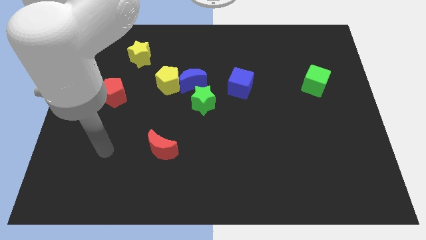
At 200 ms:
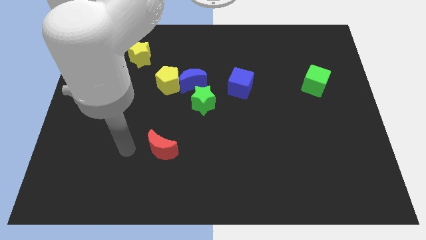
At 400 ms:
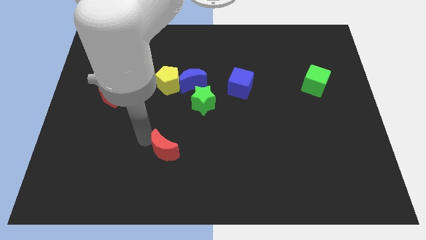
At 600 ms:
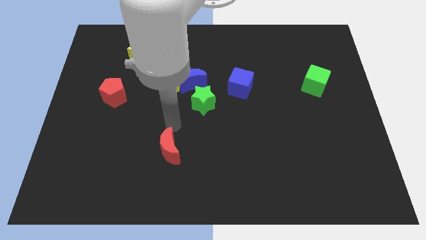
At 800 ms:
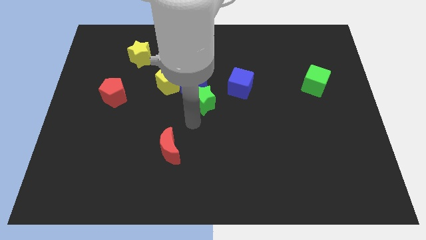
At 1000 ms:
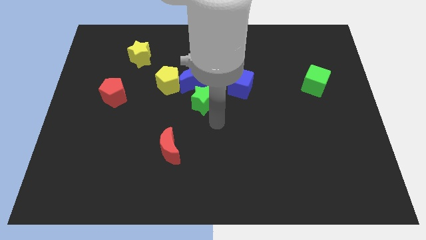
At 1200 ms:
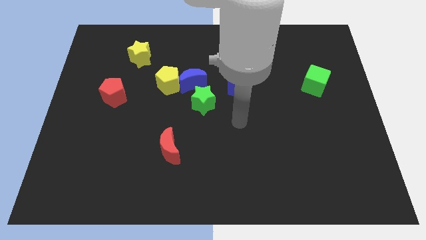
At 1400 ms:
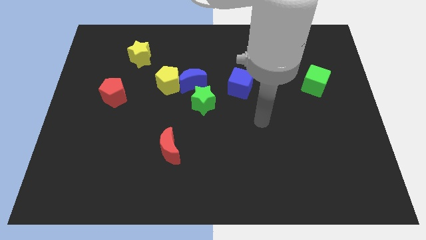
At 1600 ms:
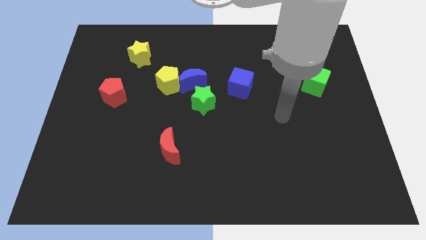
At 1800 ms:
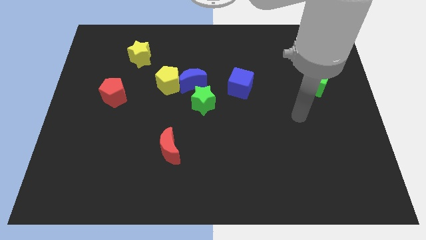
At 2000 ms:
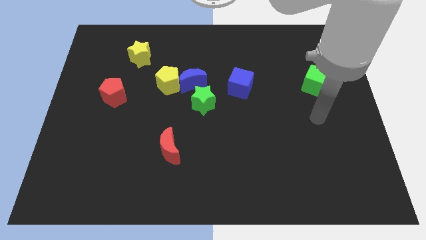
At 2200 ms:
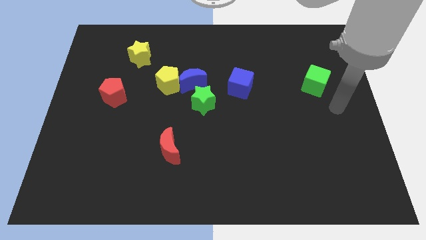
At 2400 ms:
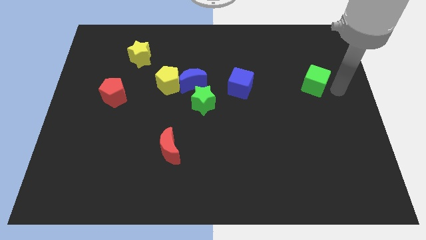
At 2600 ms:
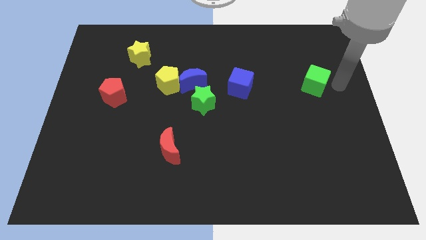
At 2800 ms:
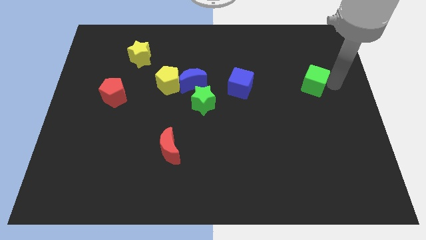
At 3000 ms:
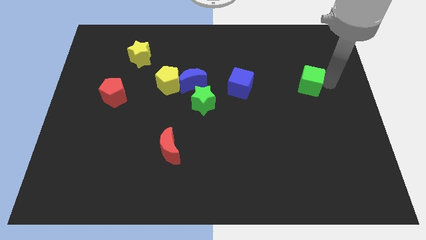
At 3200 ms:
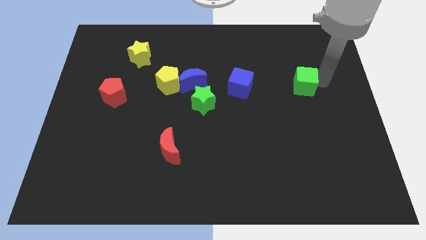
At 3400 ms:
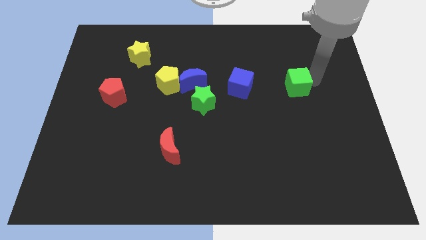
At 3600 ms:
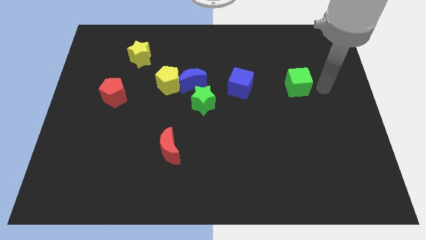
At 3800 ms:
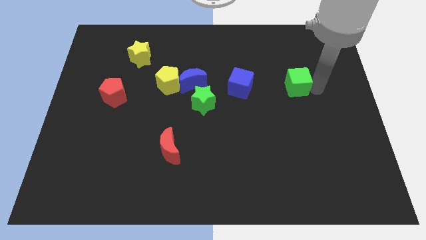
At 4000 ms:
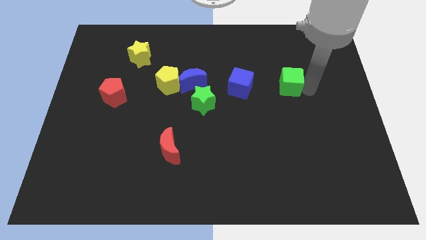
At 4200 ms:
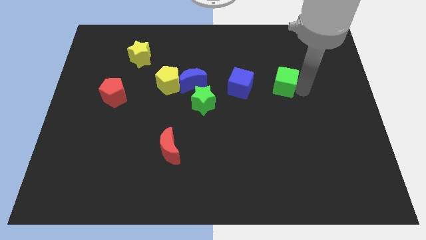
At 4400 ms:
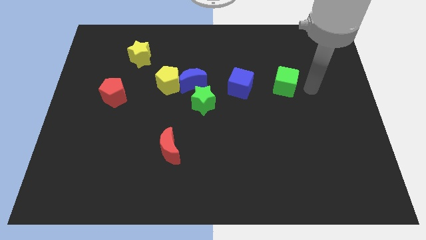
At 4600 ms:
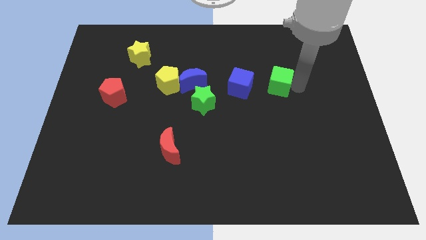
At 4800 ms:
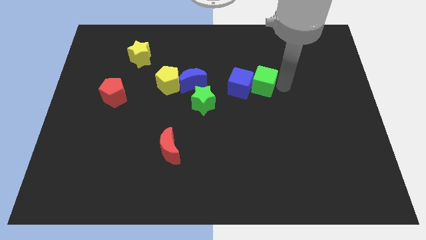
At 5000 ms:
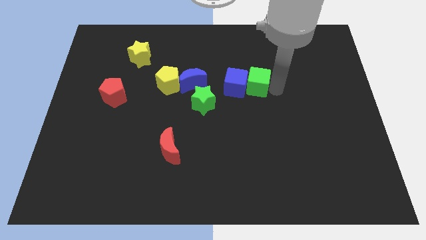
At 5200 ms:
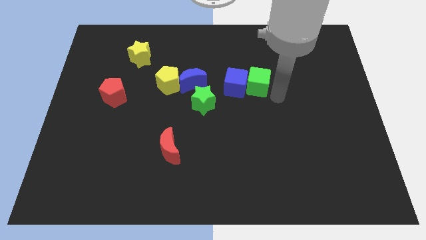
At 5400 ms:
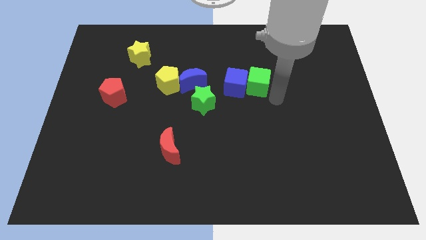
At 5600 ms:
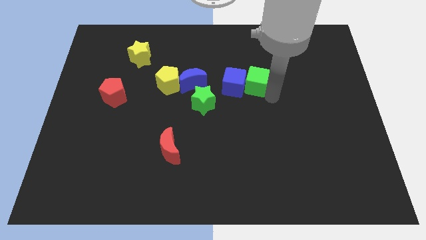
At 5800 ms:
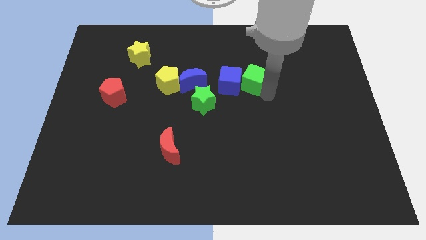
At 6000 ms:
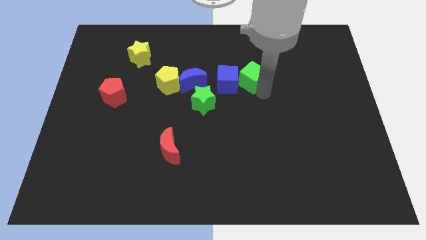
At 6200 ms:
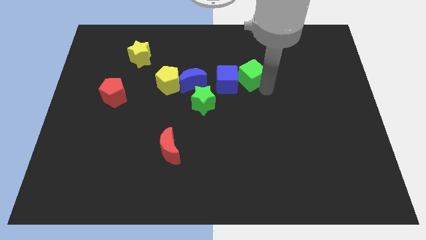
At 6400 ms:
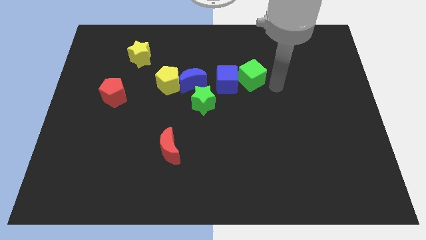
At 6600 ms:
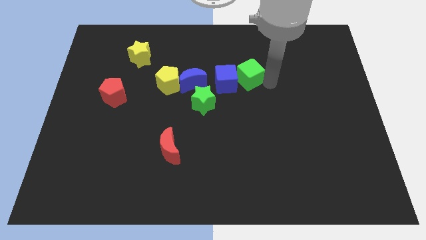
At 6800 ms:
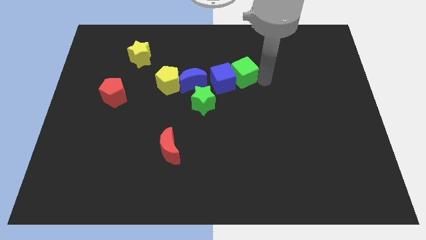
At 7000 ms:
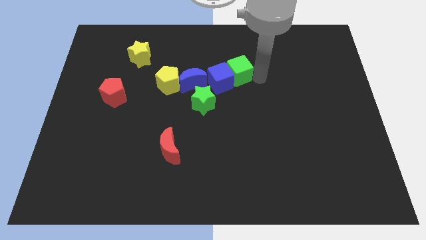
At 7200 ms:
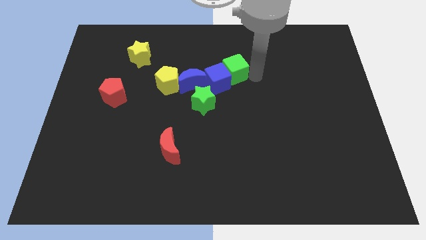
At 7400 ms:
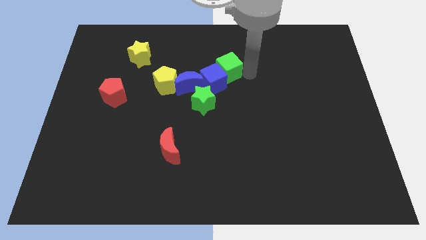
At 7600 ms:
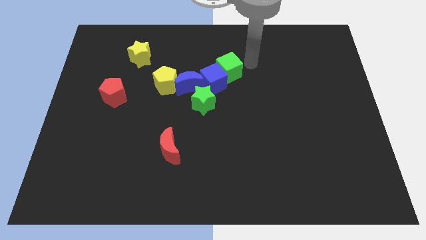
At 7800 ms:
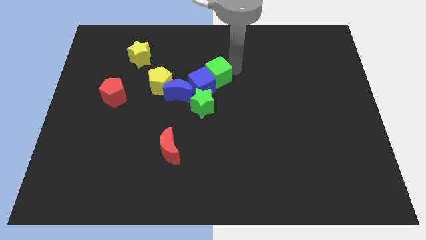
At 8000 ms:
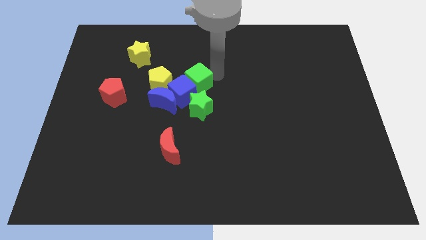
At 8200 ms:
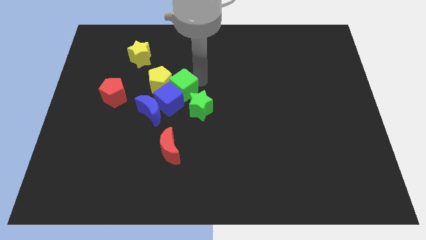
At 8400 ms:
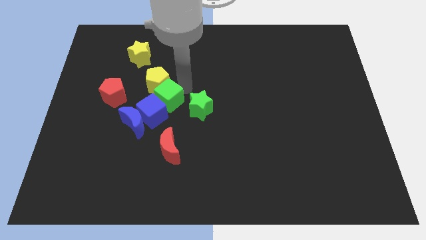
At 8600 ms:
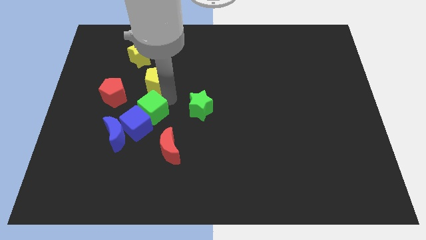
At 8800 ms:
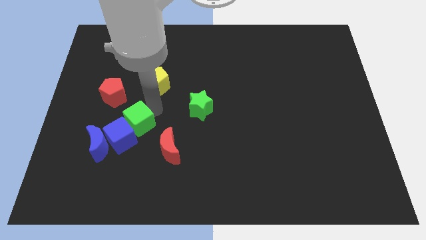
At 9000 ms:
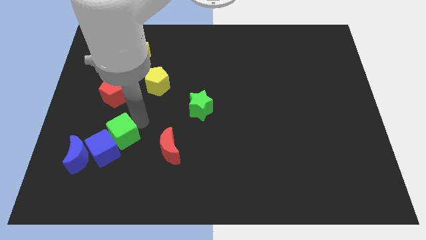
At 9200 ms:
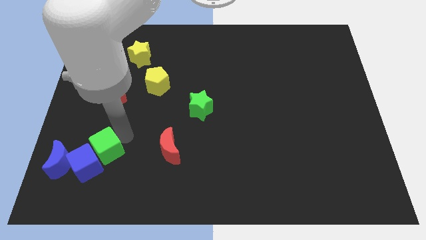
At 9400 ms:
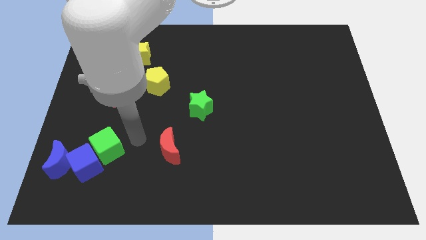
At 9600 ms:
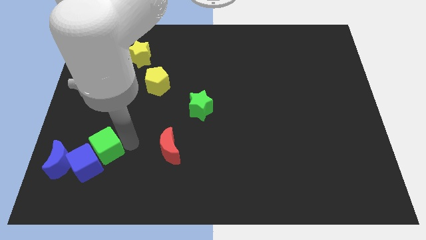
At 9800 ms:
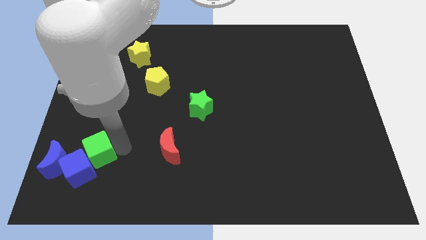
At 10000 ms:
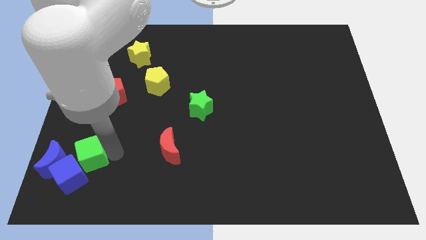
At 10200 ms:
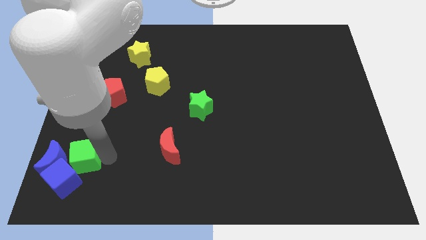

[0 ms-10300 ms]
move the green cube next to the blue moon

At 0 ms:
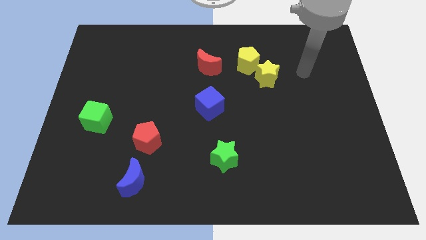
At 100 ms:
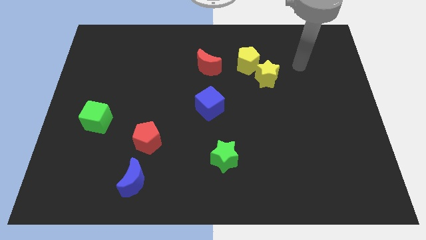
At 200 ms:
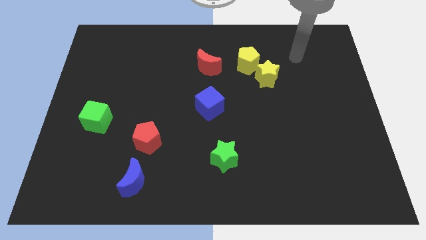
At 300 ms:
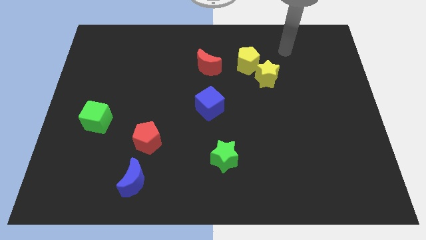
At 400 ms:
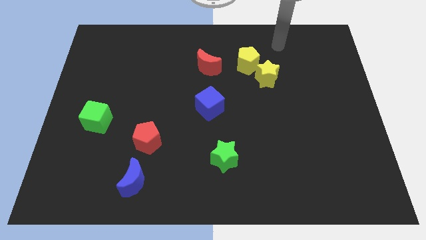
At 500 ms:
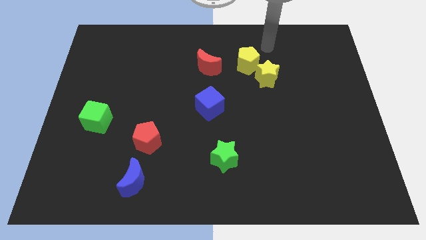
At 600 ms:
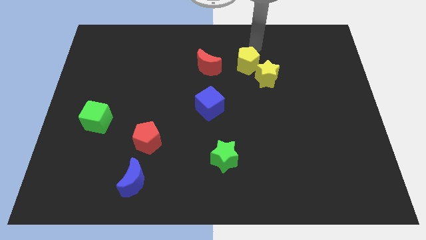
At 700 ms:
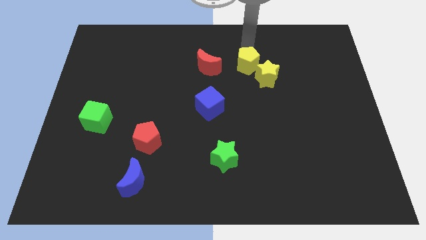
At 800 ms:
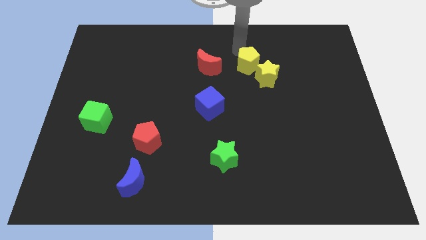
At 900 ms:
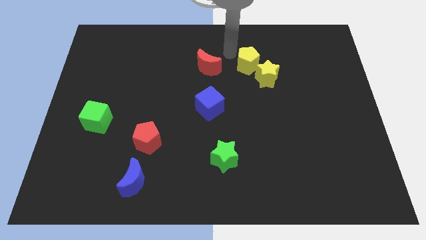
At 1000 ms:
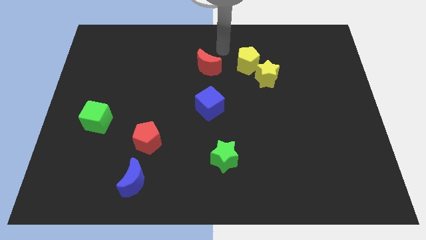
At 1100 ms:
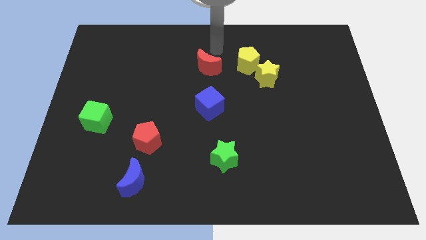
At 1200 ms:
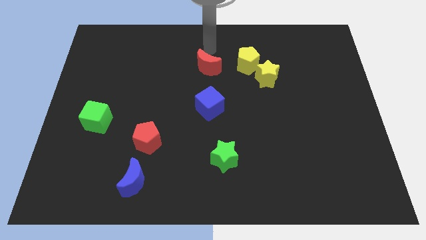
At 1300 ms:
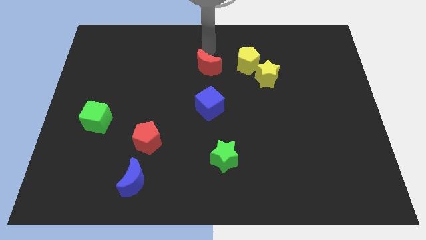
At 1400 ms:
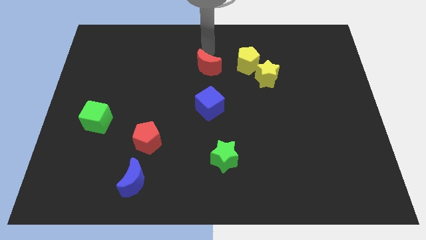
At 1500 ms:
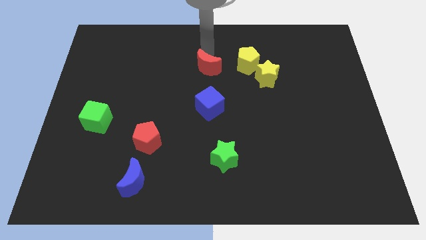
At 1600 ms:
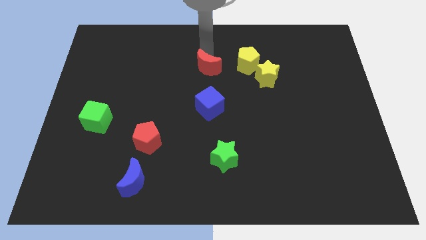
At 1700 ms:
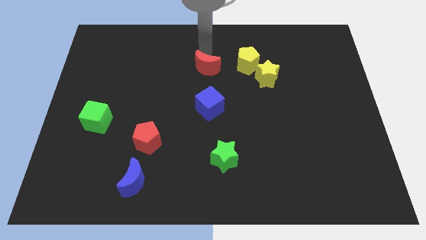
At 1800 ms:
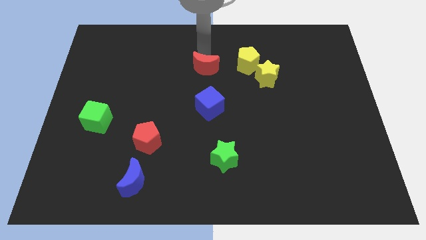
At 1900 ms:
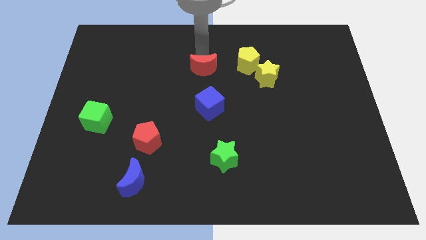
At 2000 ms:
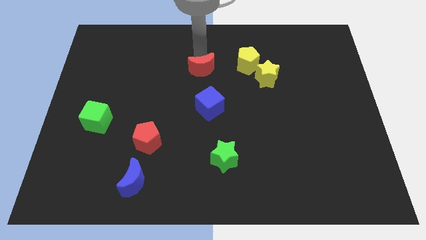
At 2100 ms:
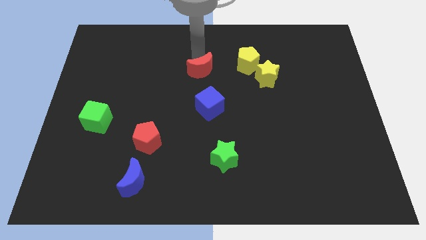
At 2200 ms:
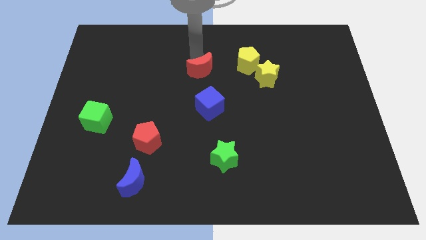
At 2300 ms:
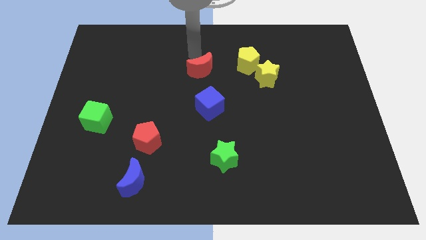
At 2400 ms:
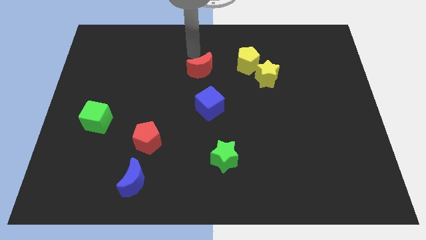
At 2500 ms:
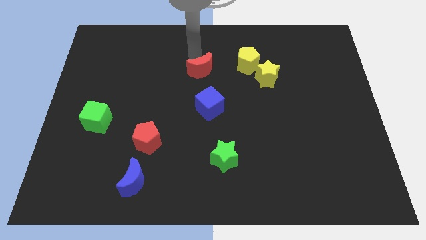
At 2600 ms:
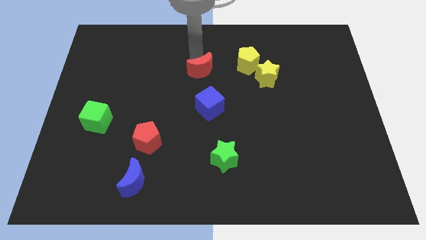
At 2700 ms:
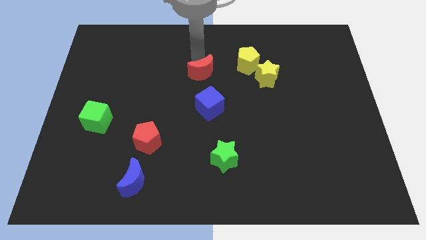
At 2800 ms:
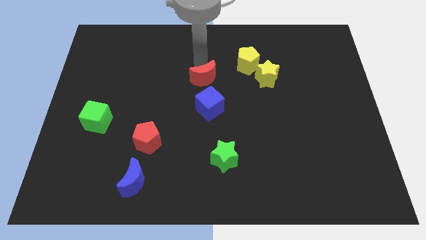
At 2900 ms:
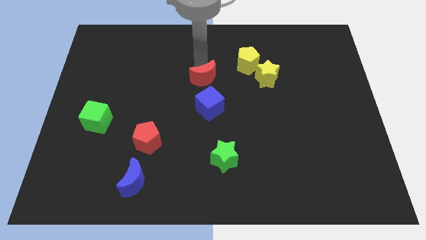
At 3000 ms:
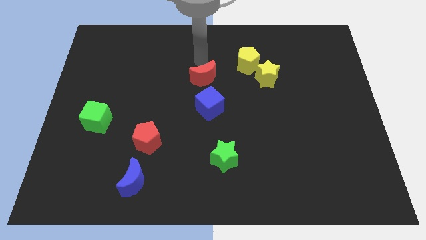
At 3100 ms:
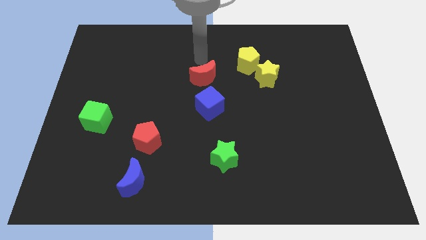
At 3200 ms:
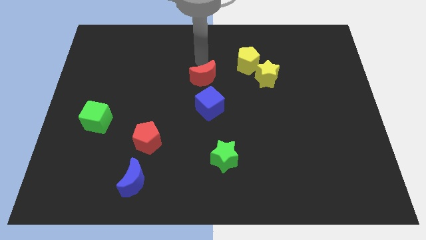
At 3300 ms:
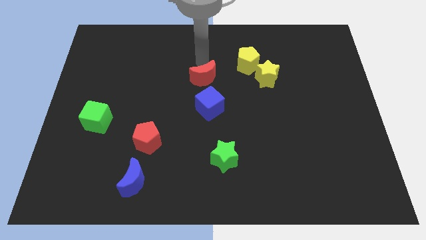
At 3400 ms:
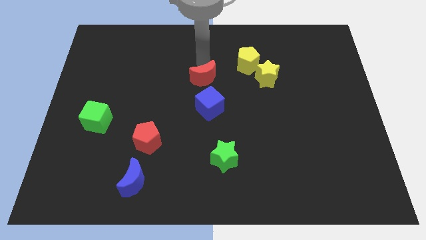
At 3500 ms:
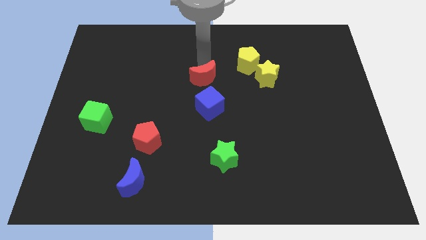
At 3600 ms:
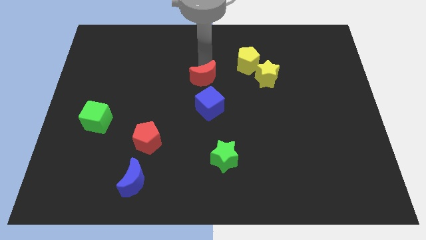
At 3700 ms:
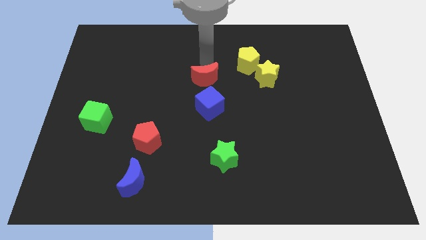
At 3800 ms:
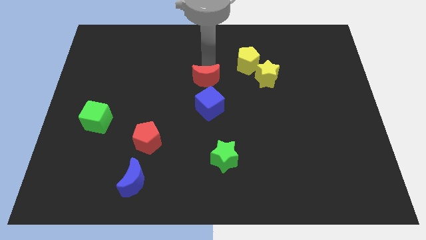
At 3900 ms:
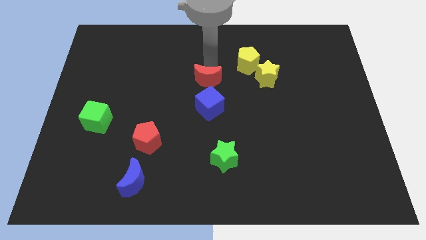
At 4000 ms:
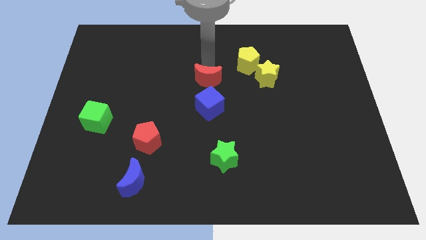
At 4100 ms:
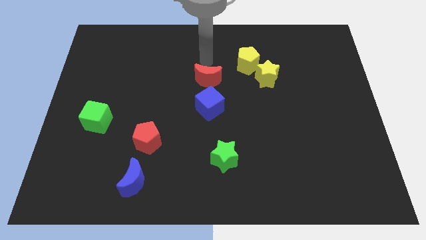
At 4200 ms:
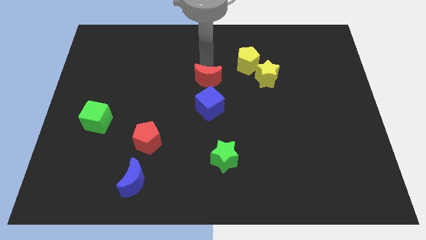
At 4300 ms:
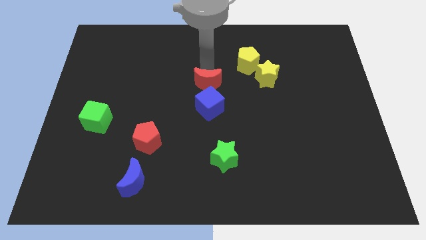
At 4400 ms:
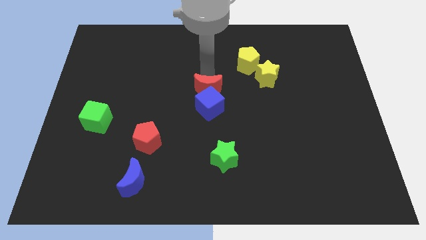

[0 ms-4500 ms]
move the red moon close to the blue cube
